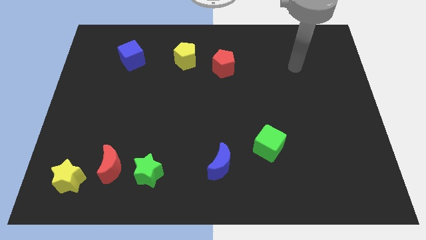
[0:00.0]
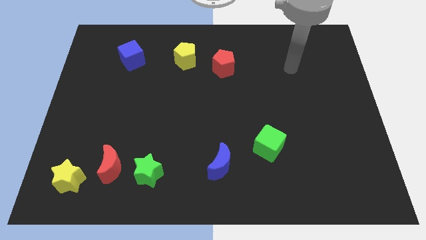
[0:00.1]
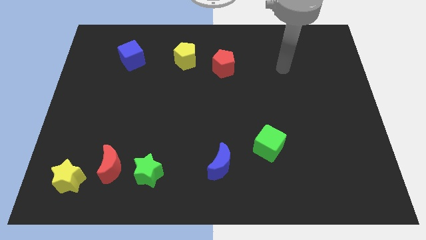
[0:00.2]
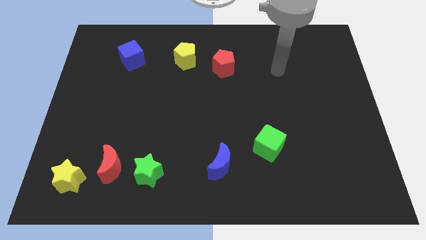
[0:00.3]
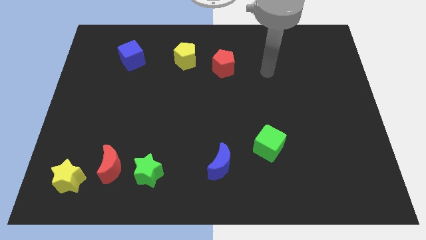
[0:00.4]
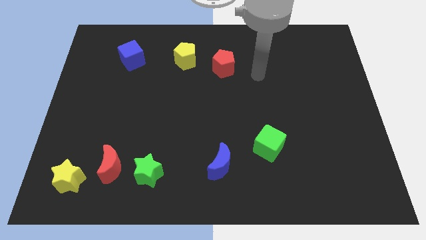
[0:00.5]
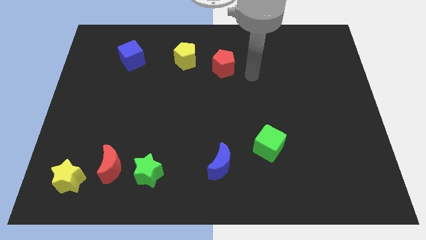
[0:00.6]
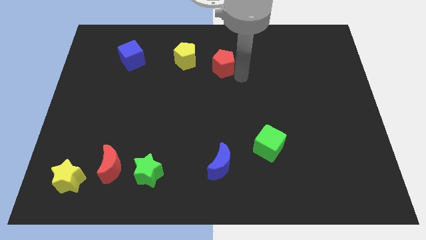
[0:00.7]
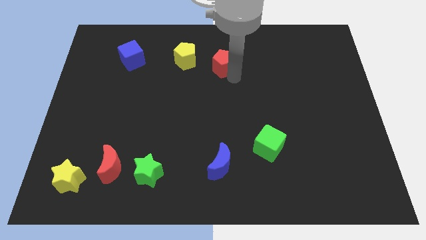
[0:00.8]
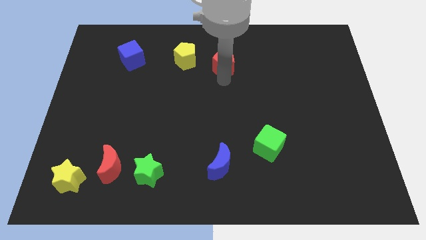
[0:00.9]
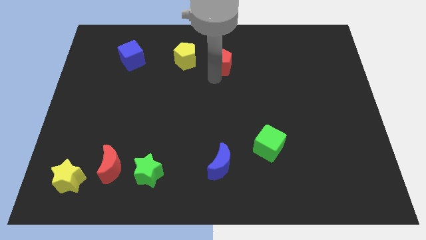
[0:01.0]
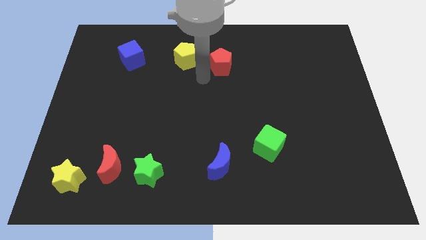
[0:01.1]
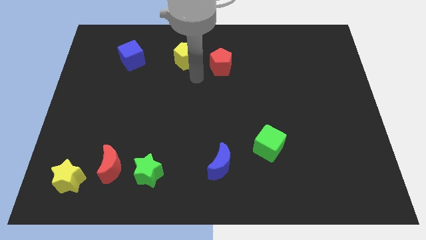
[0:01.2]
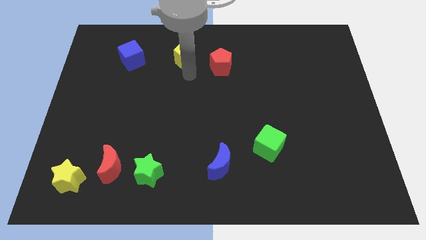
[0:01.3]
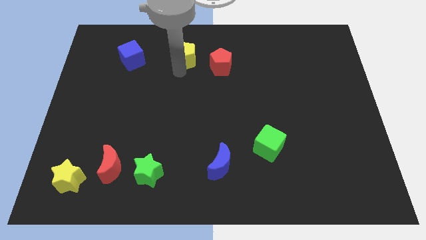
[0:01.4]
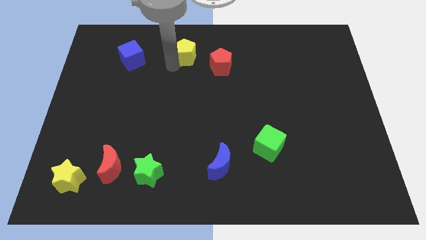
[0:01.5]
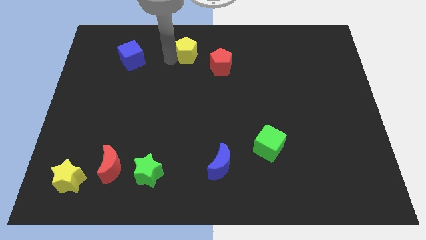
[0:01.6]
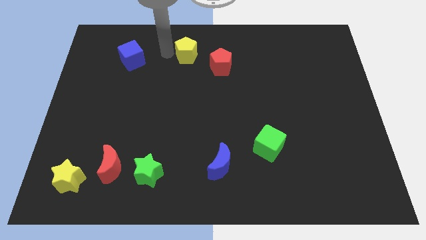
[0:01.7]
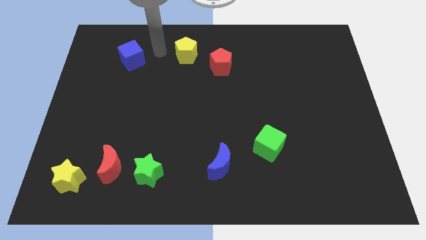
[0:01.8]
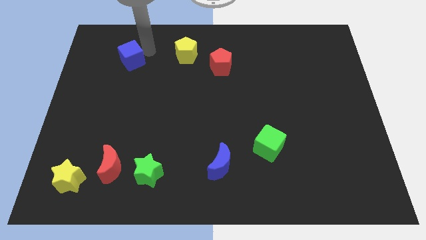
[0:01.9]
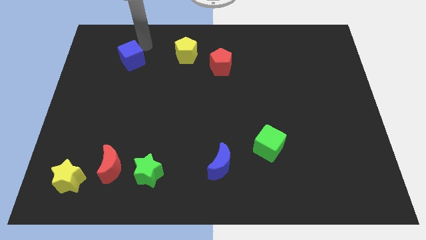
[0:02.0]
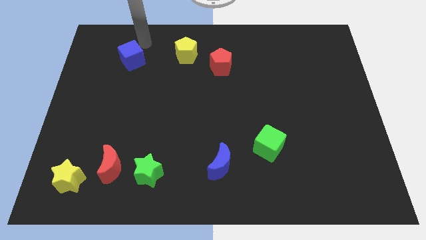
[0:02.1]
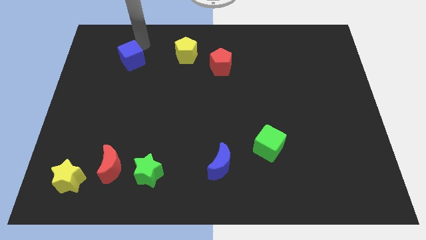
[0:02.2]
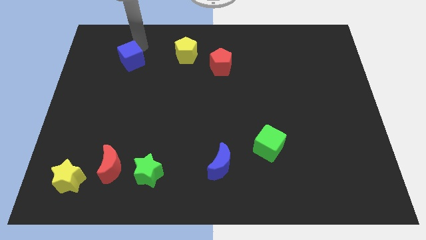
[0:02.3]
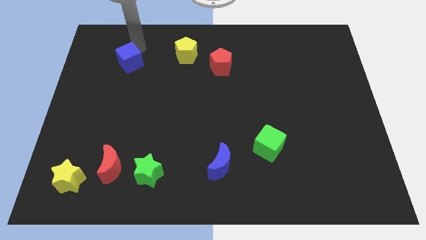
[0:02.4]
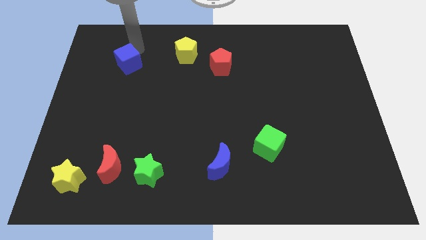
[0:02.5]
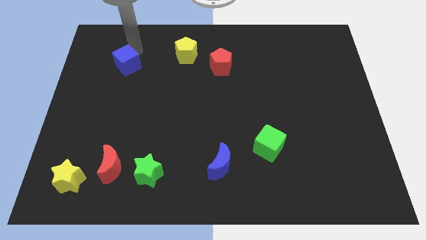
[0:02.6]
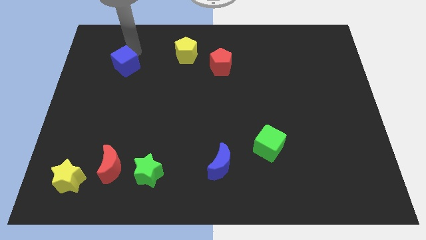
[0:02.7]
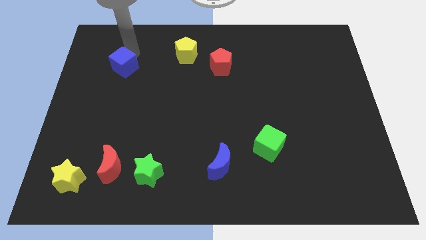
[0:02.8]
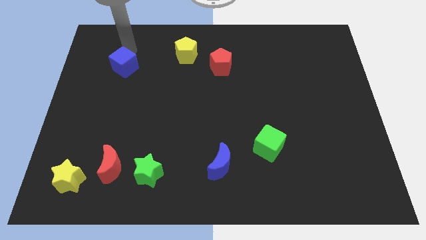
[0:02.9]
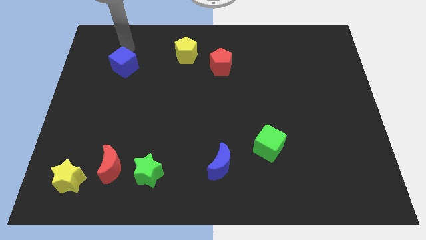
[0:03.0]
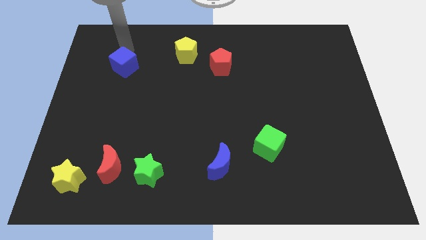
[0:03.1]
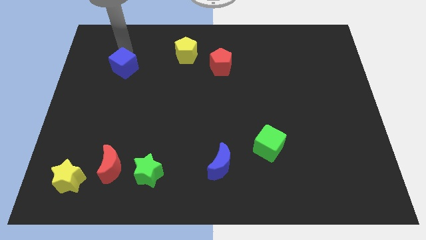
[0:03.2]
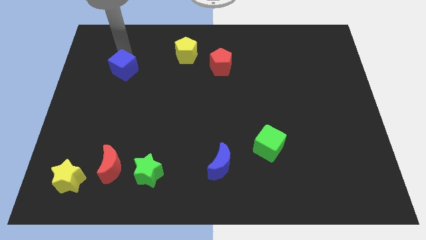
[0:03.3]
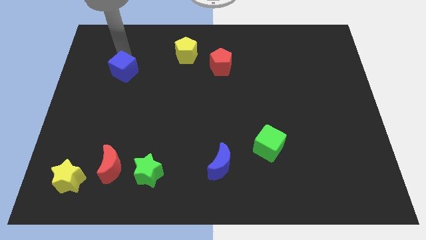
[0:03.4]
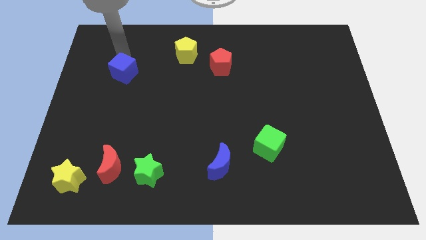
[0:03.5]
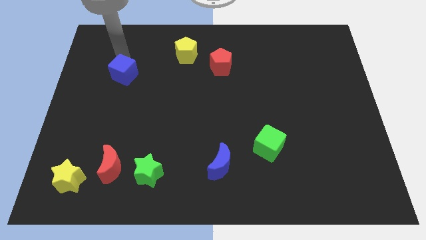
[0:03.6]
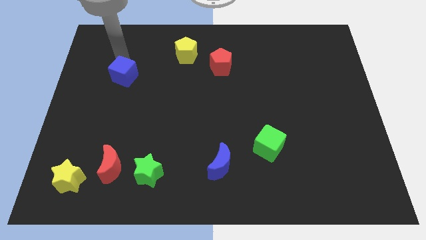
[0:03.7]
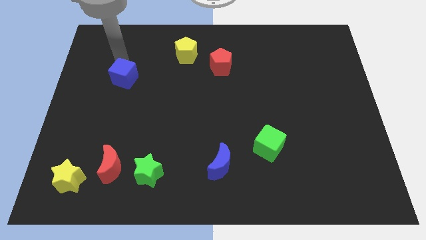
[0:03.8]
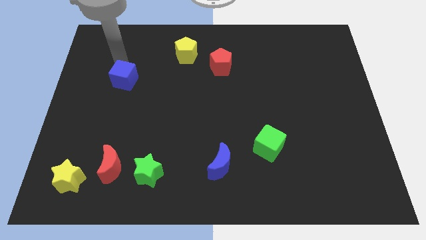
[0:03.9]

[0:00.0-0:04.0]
push the blue cube downwards a little bit

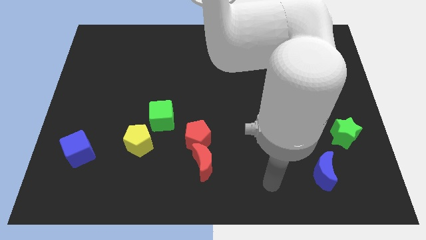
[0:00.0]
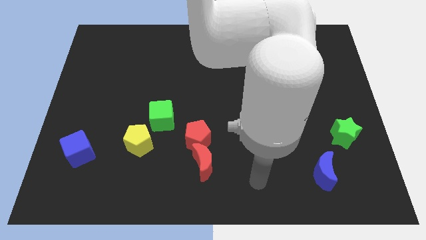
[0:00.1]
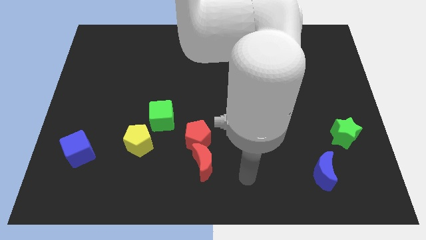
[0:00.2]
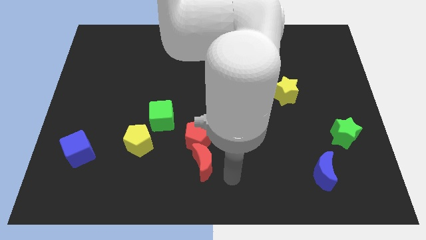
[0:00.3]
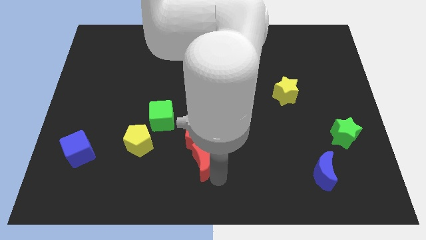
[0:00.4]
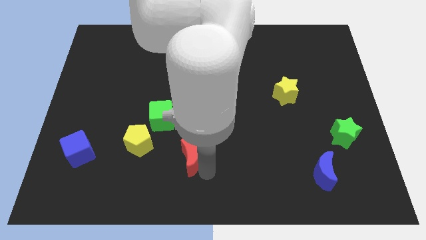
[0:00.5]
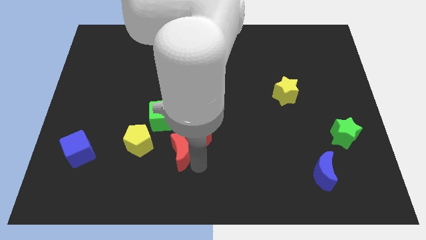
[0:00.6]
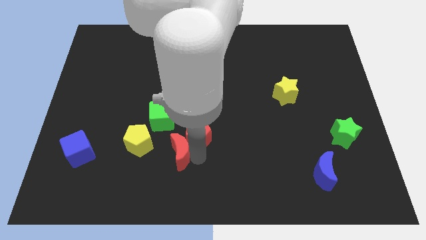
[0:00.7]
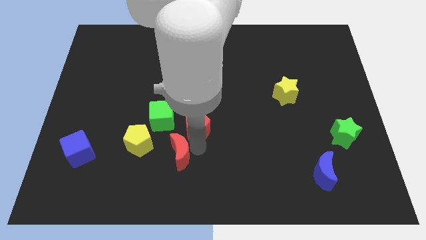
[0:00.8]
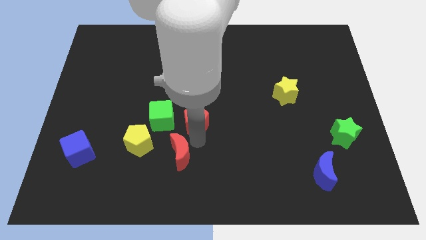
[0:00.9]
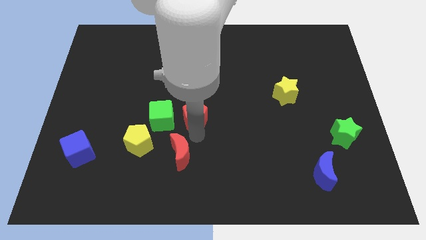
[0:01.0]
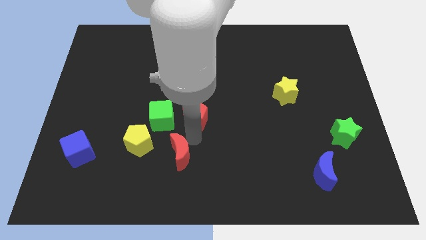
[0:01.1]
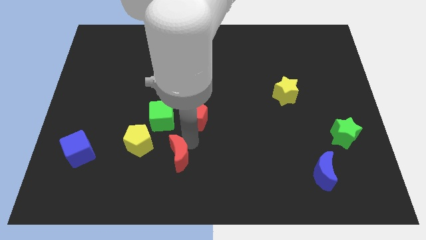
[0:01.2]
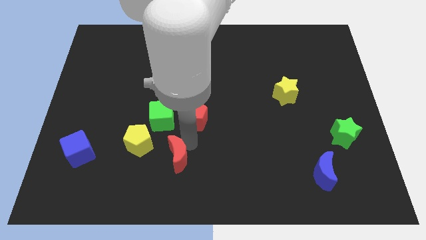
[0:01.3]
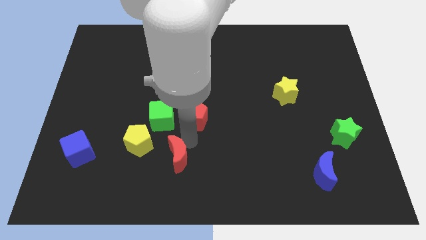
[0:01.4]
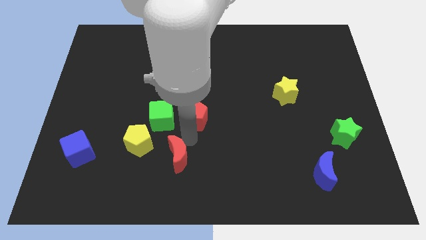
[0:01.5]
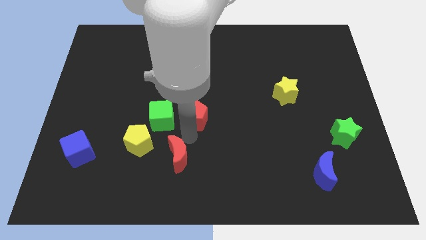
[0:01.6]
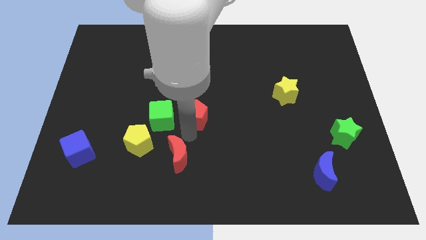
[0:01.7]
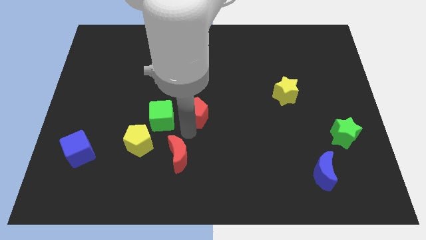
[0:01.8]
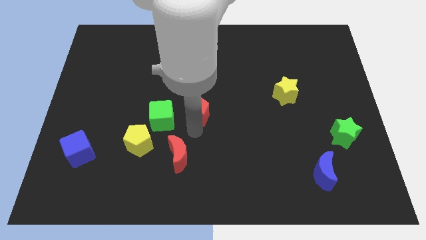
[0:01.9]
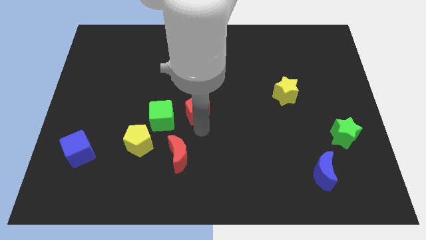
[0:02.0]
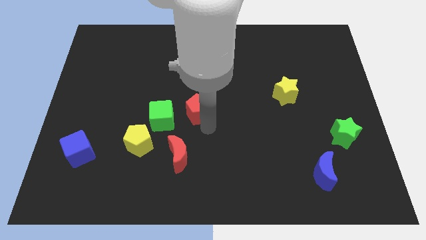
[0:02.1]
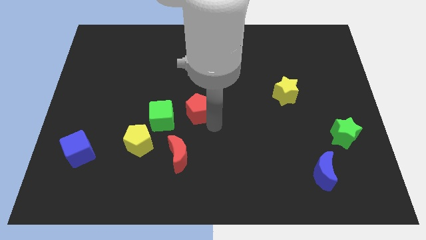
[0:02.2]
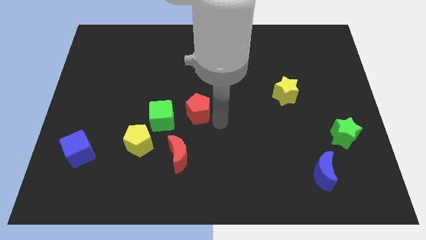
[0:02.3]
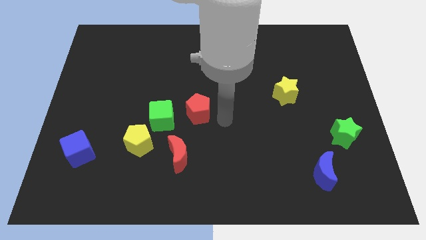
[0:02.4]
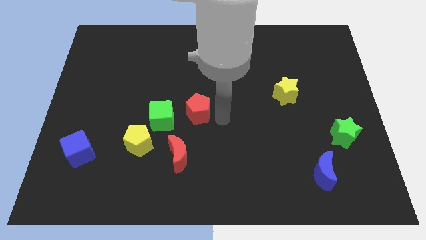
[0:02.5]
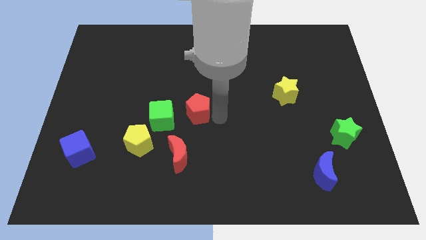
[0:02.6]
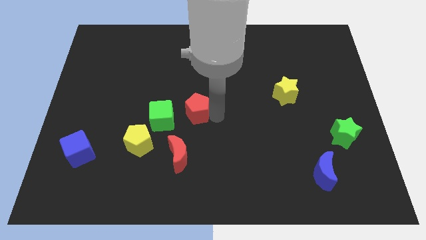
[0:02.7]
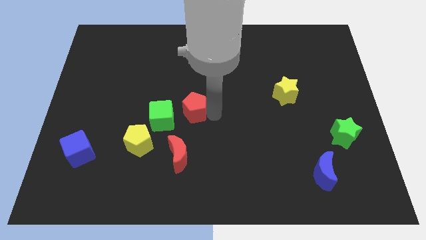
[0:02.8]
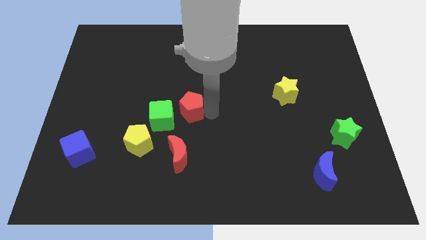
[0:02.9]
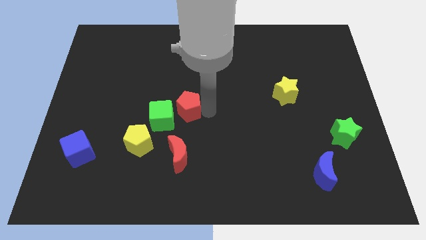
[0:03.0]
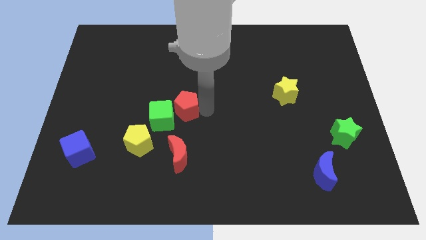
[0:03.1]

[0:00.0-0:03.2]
push the red pentagon diagonally up and to the left somewhat

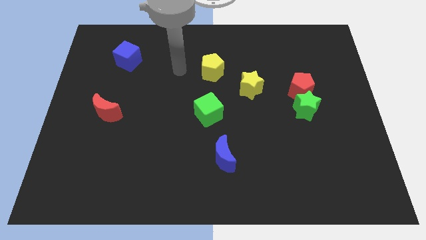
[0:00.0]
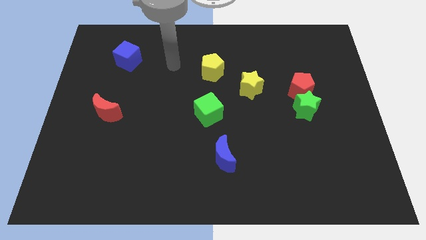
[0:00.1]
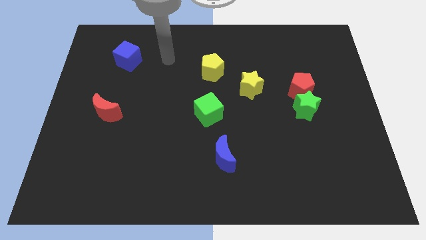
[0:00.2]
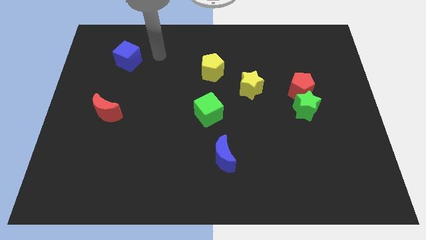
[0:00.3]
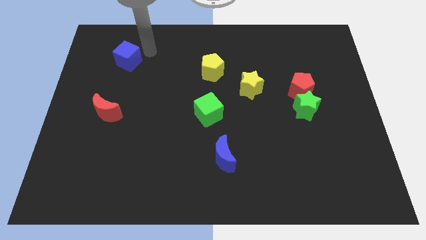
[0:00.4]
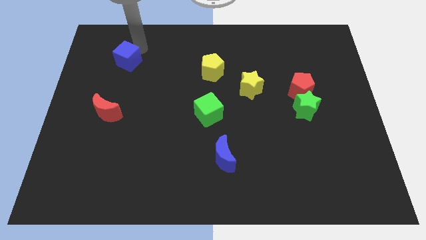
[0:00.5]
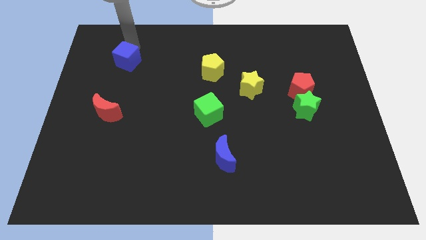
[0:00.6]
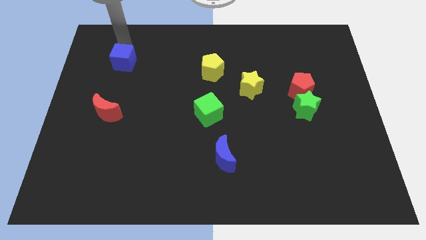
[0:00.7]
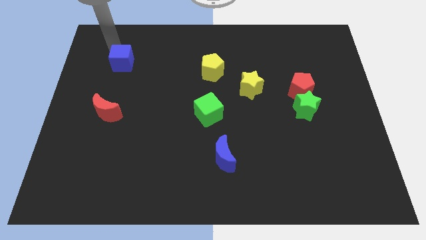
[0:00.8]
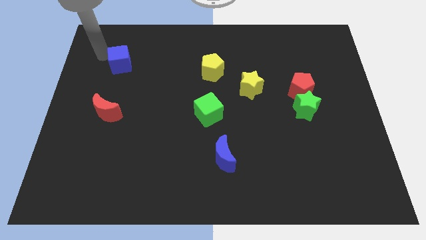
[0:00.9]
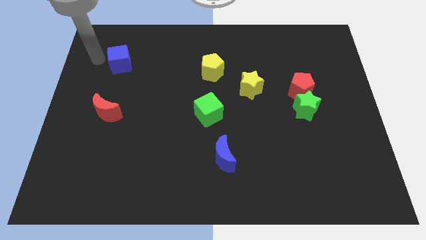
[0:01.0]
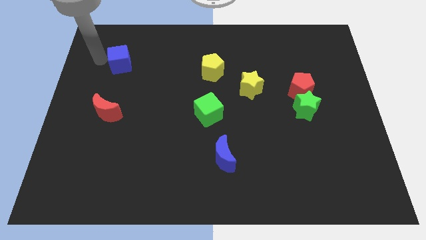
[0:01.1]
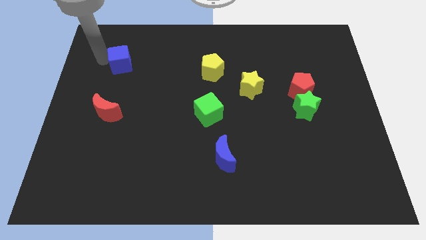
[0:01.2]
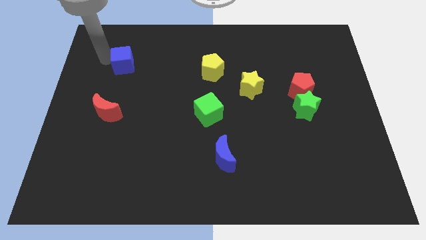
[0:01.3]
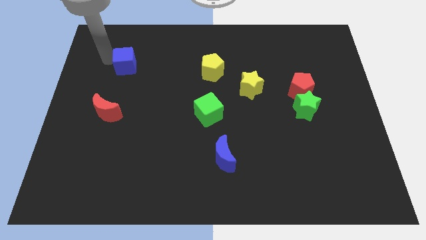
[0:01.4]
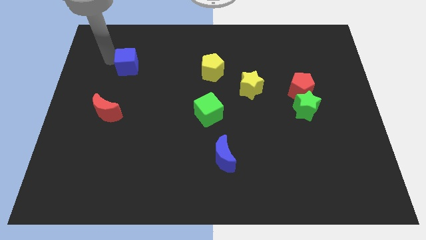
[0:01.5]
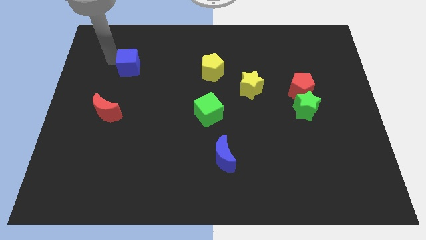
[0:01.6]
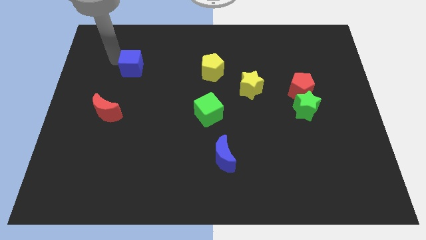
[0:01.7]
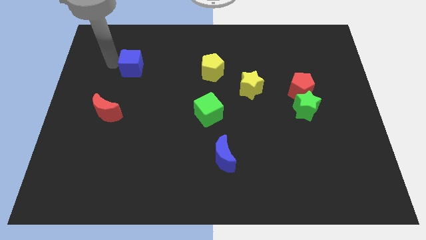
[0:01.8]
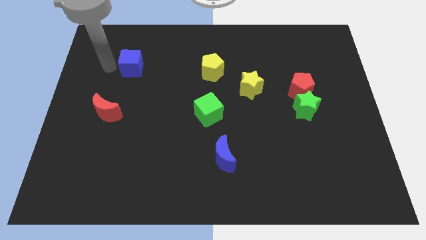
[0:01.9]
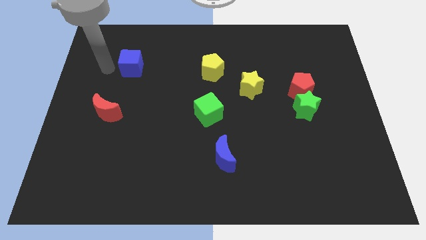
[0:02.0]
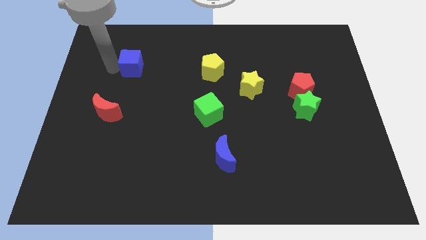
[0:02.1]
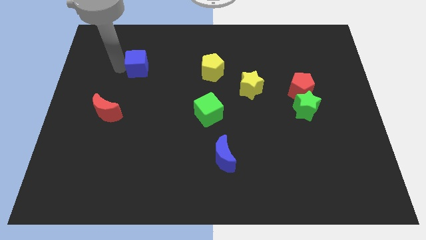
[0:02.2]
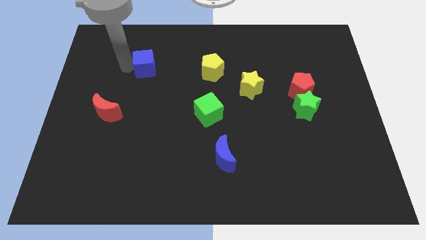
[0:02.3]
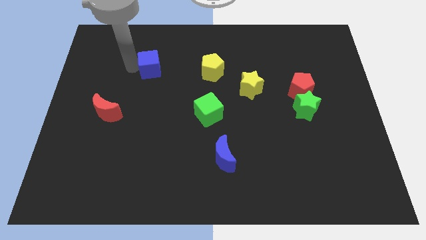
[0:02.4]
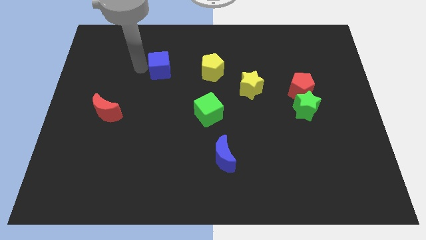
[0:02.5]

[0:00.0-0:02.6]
slightly push the blue cube to the right
